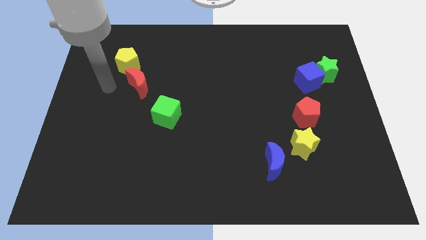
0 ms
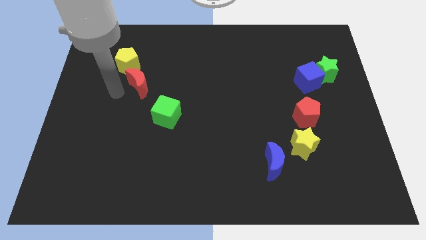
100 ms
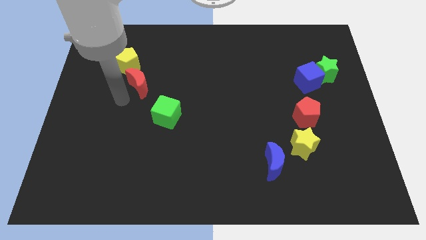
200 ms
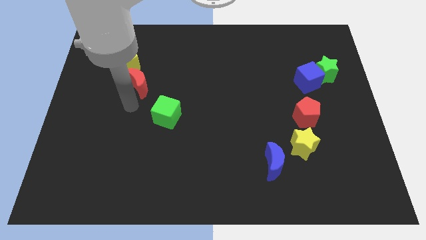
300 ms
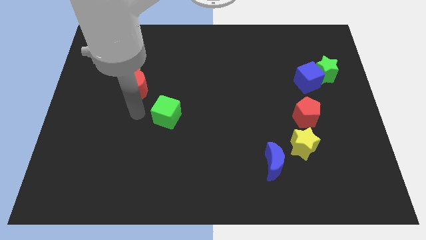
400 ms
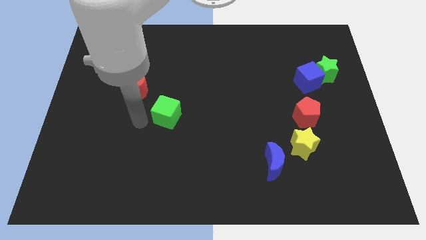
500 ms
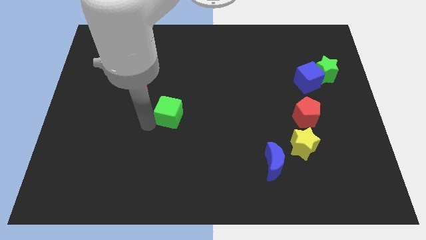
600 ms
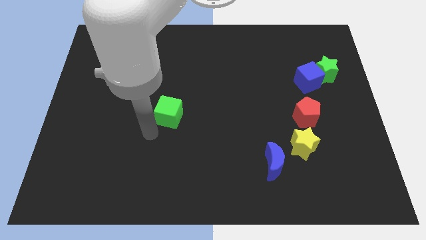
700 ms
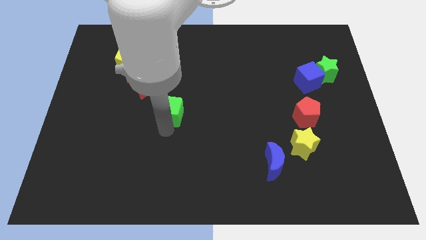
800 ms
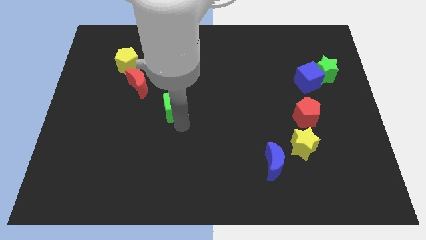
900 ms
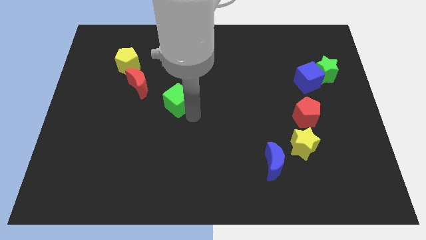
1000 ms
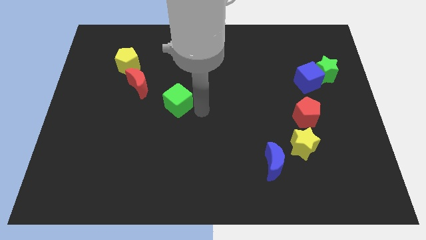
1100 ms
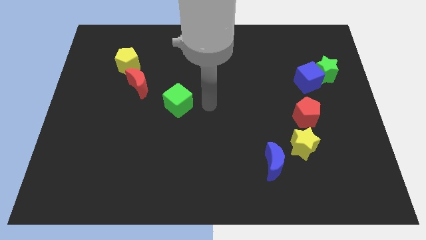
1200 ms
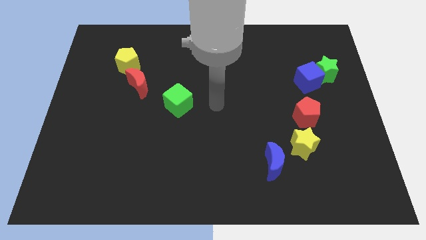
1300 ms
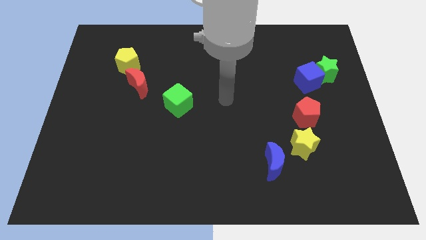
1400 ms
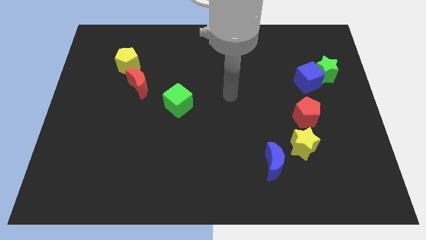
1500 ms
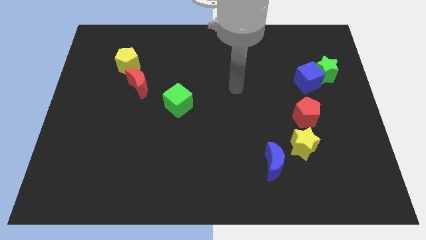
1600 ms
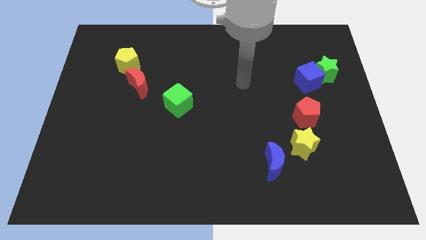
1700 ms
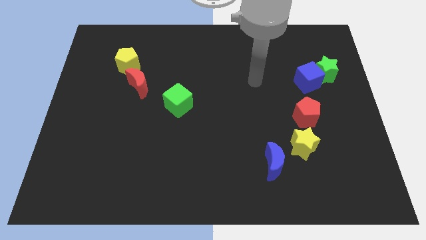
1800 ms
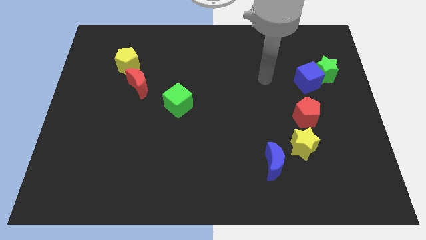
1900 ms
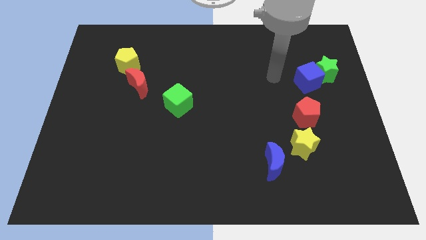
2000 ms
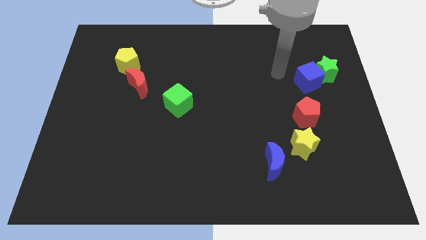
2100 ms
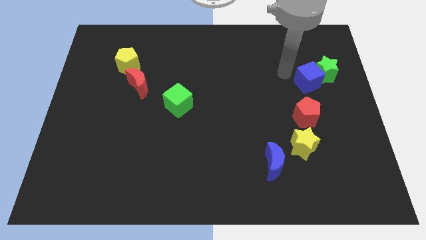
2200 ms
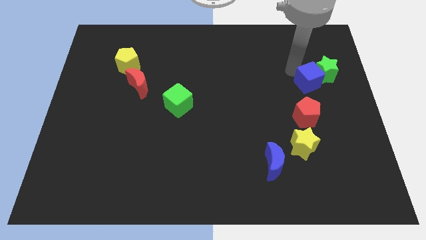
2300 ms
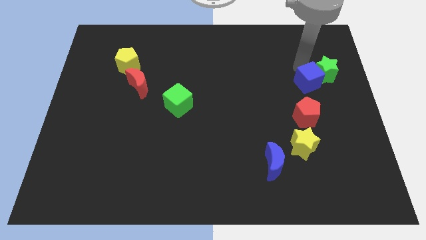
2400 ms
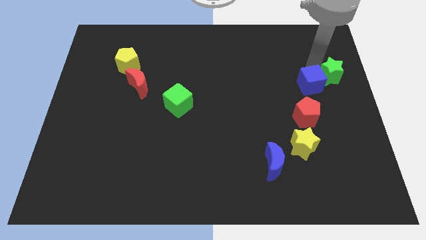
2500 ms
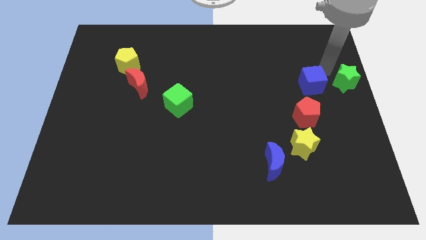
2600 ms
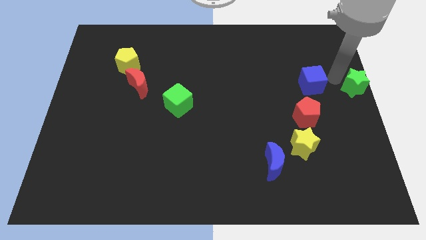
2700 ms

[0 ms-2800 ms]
move the blue cube away from the green star

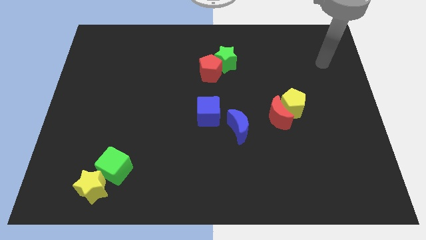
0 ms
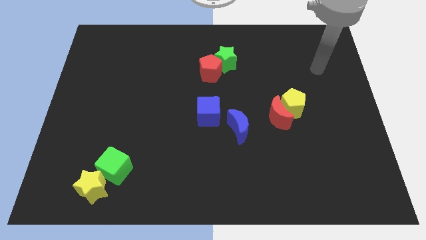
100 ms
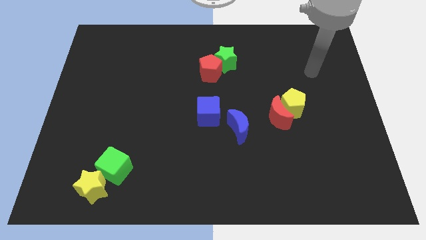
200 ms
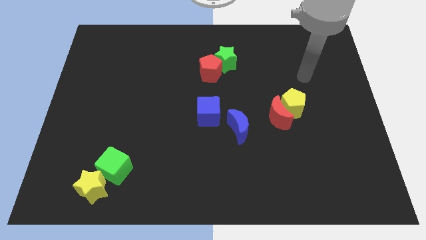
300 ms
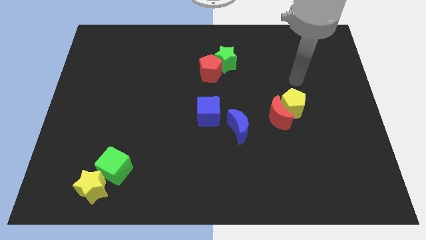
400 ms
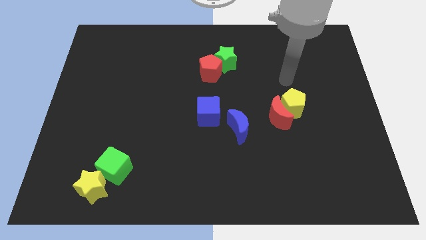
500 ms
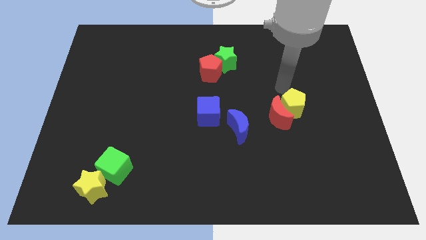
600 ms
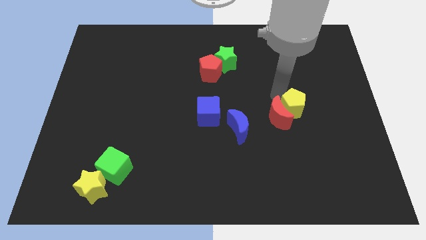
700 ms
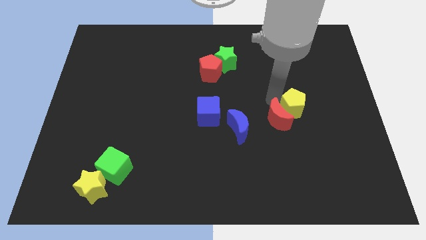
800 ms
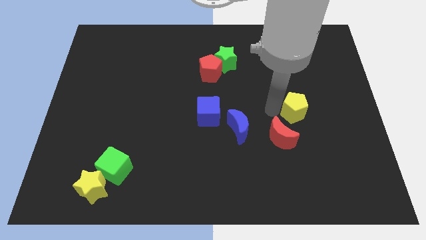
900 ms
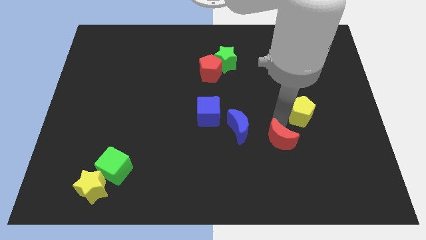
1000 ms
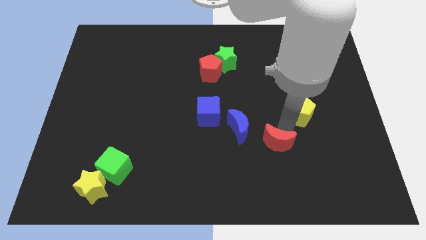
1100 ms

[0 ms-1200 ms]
move the yellow pentagon away from the red moon

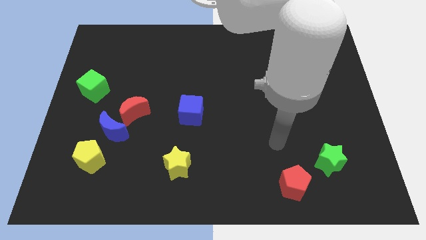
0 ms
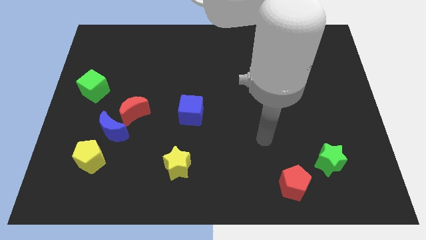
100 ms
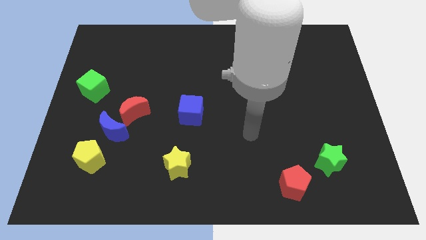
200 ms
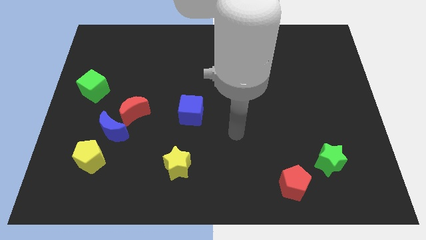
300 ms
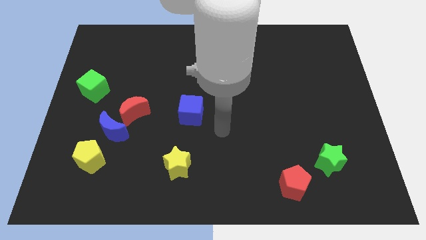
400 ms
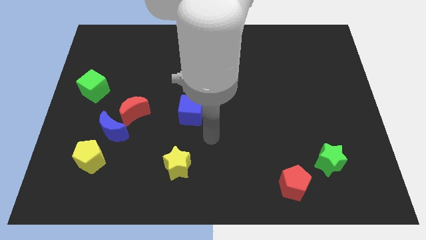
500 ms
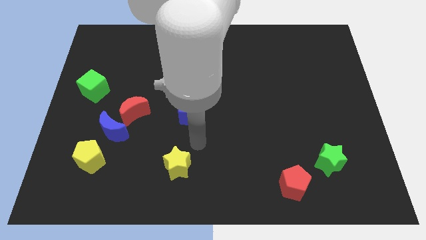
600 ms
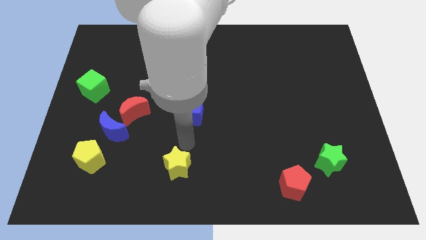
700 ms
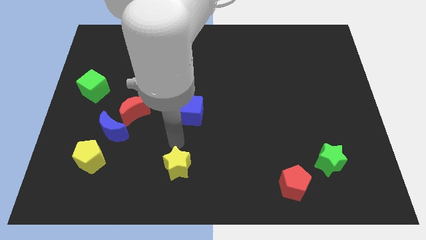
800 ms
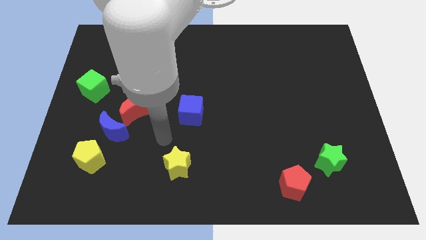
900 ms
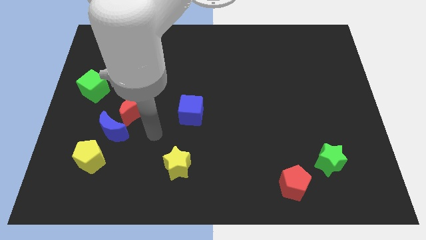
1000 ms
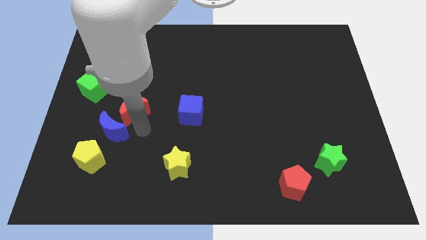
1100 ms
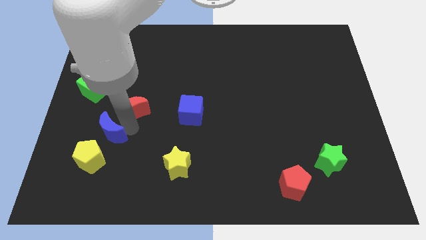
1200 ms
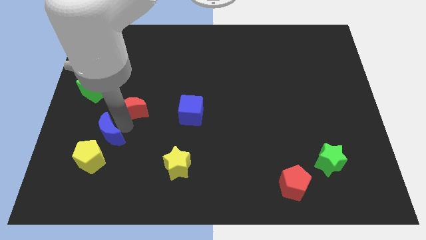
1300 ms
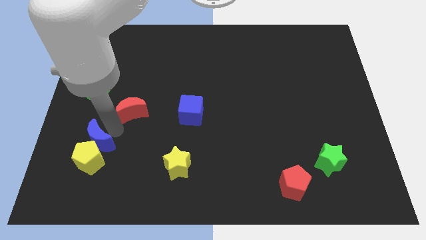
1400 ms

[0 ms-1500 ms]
separate the red moon from the blue moon

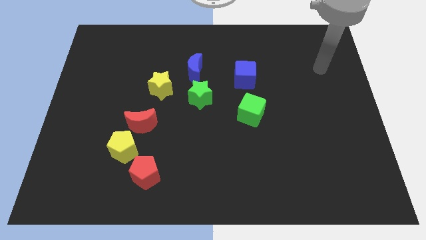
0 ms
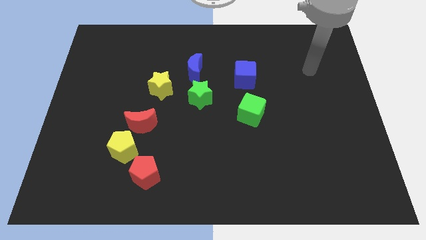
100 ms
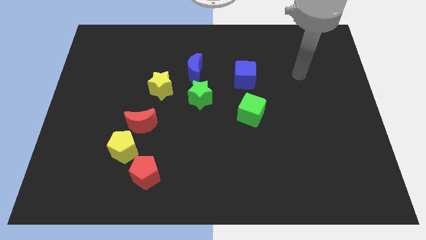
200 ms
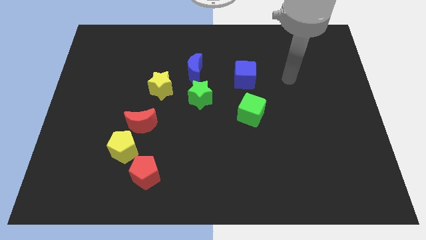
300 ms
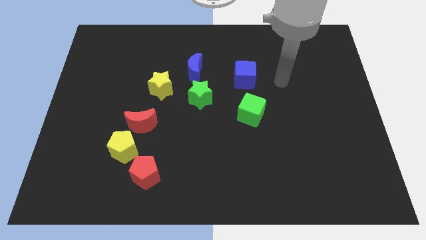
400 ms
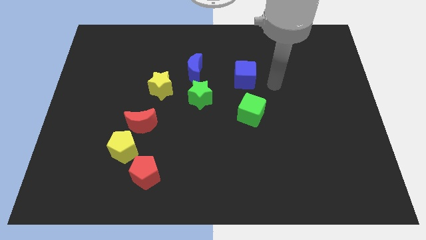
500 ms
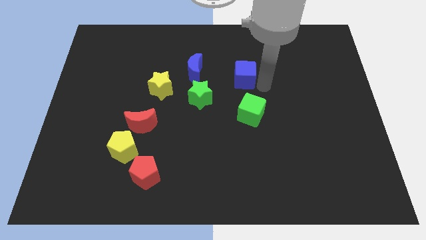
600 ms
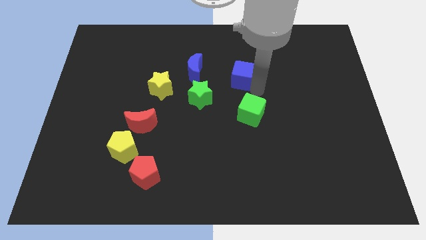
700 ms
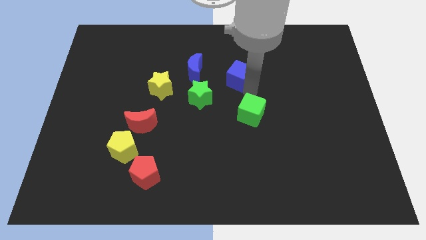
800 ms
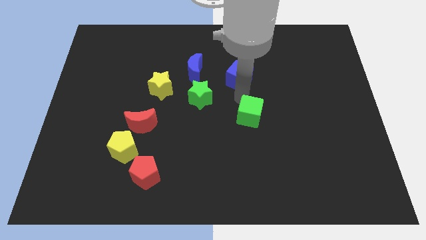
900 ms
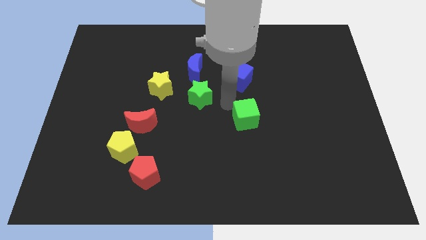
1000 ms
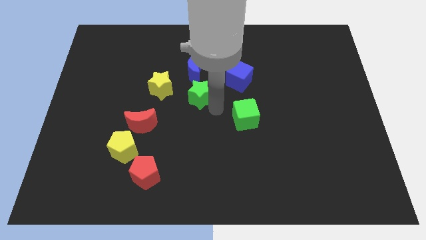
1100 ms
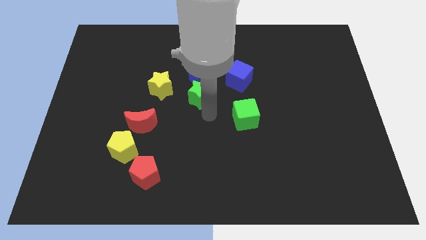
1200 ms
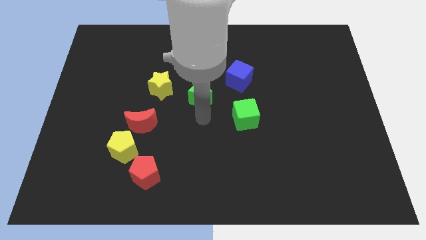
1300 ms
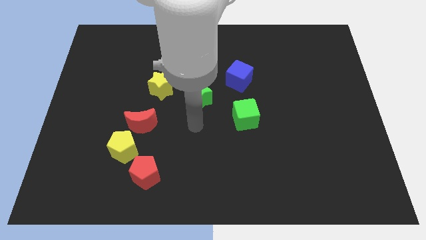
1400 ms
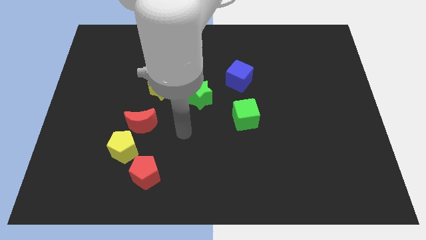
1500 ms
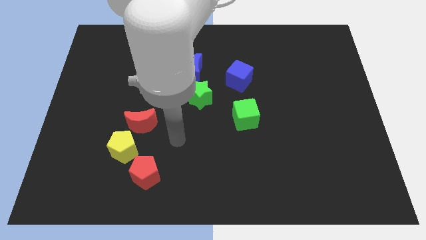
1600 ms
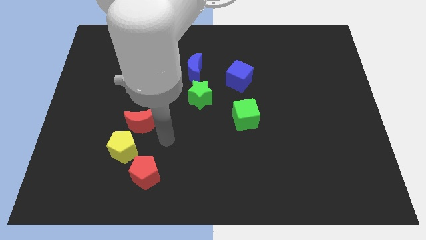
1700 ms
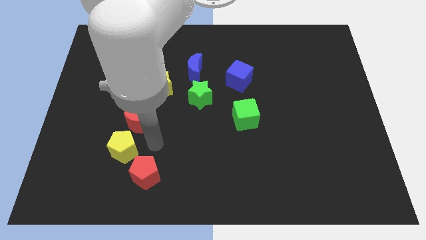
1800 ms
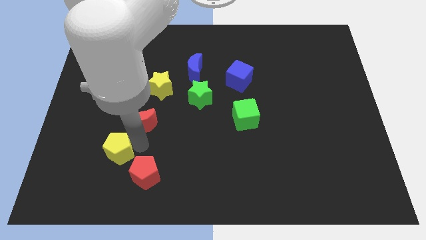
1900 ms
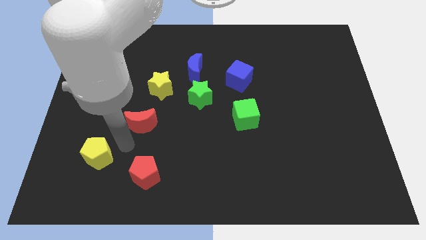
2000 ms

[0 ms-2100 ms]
pull the red moon apart from the yellow pentagon

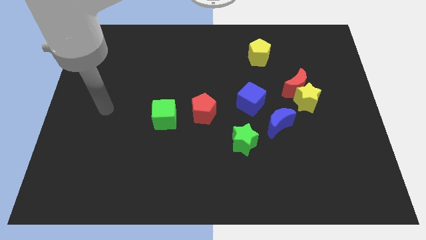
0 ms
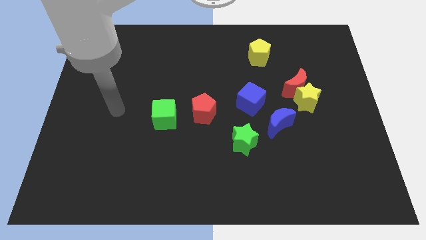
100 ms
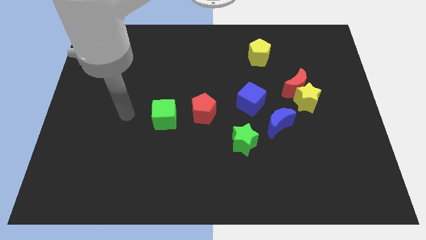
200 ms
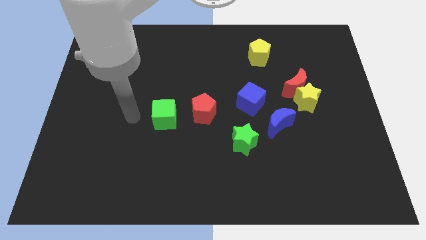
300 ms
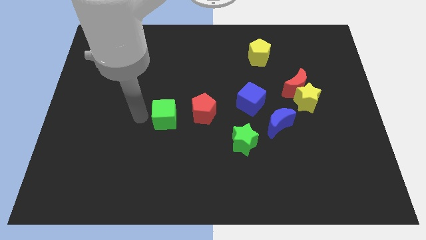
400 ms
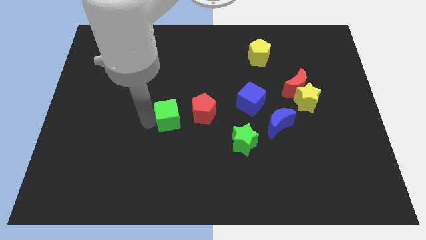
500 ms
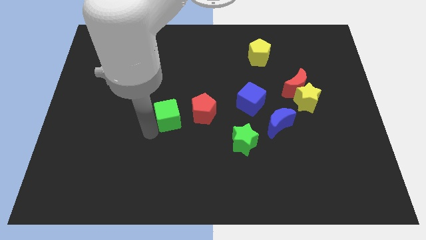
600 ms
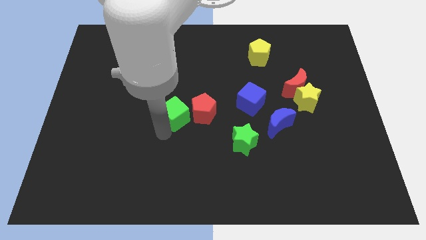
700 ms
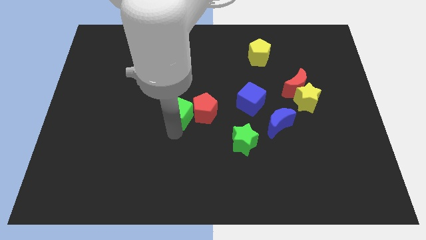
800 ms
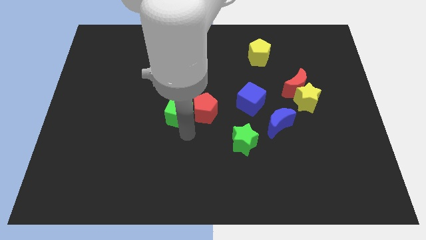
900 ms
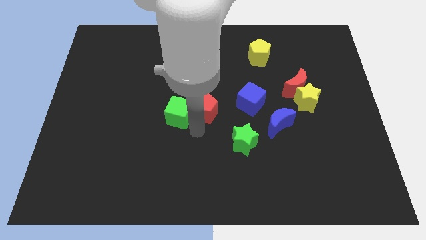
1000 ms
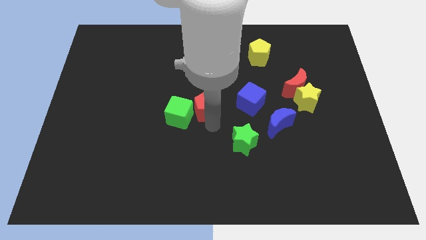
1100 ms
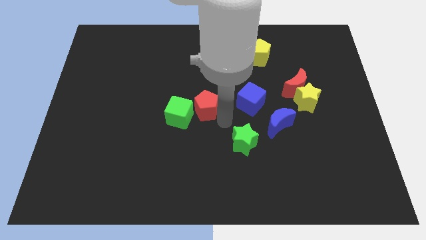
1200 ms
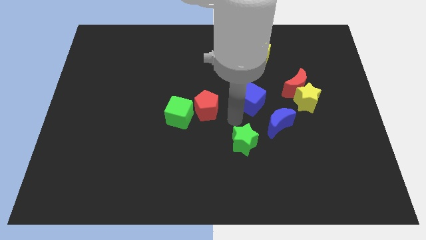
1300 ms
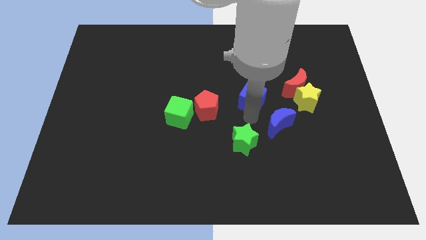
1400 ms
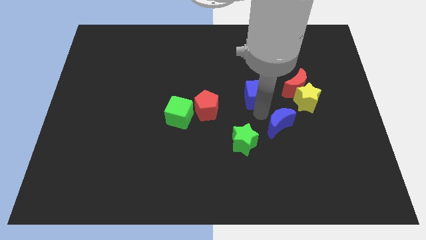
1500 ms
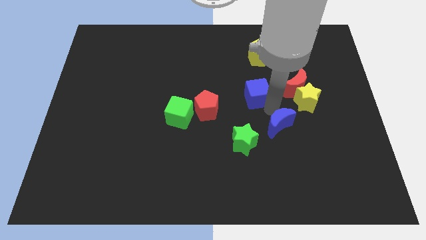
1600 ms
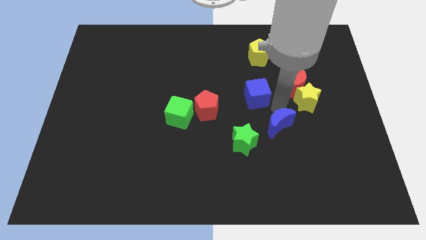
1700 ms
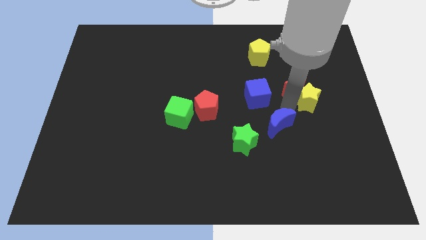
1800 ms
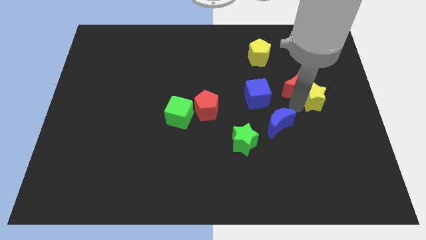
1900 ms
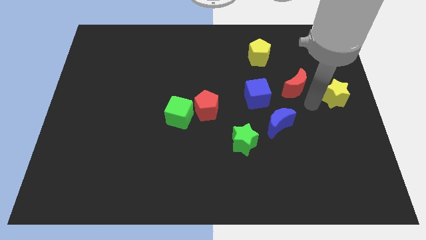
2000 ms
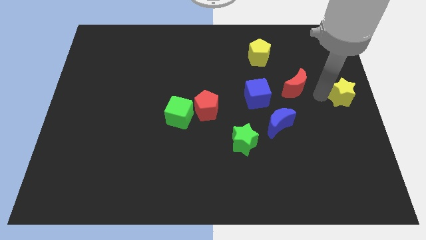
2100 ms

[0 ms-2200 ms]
move the red moon away from the yellow star
